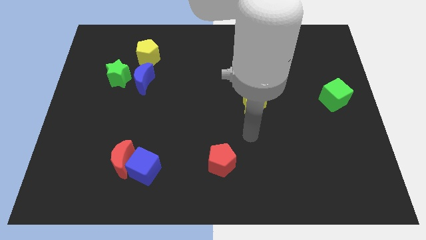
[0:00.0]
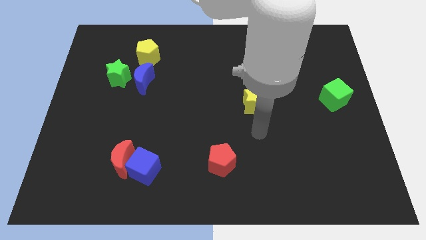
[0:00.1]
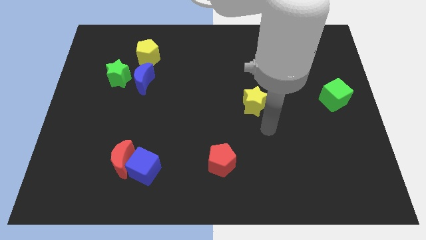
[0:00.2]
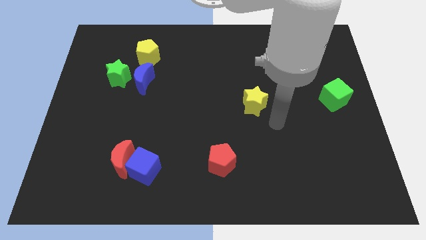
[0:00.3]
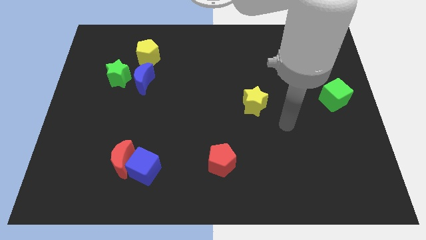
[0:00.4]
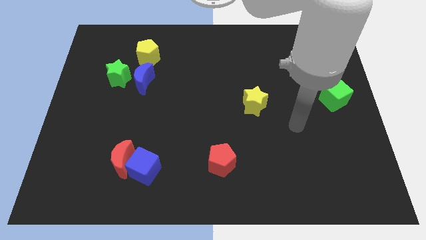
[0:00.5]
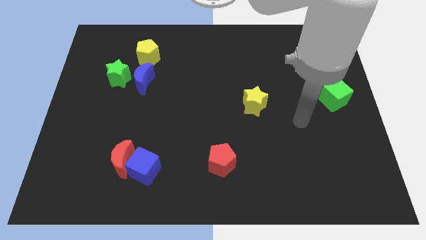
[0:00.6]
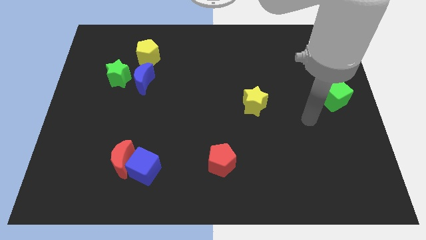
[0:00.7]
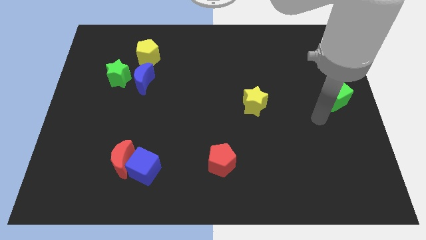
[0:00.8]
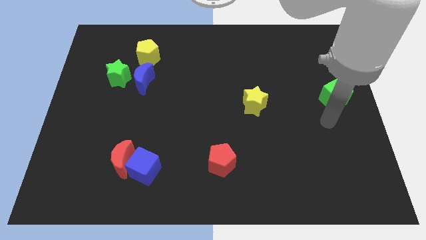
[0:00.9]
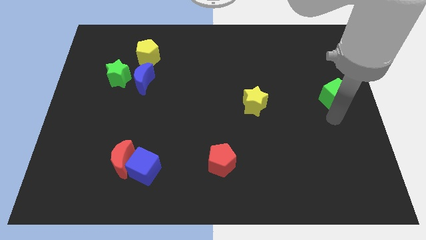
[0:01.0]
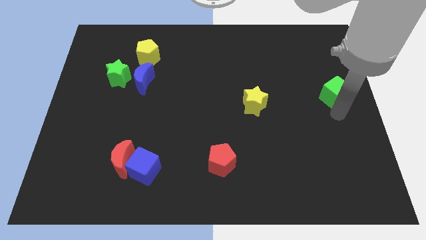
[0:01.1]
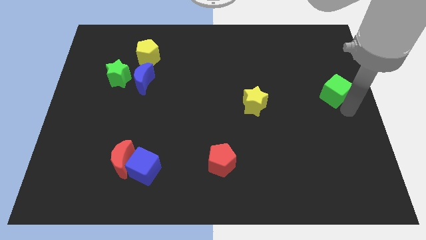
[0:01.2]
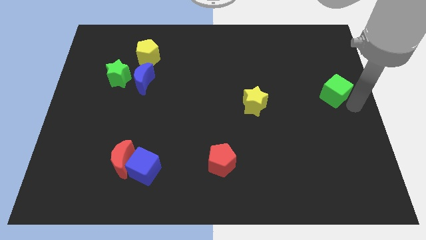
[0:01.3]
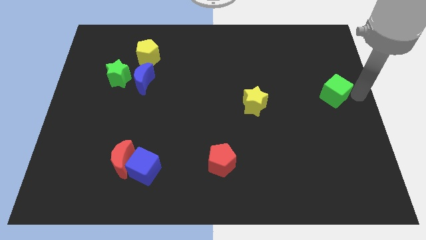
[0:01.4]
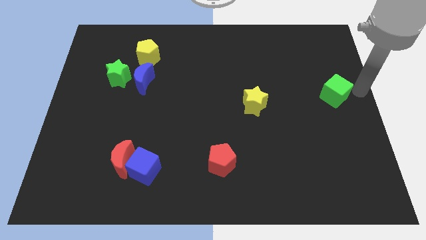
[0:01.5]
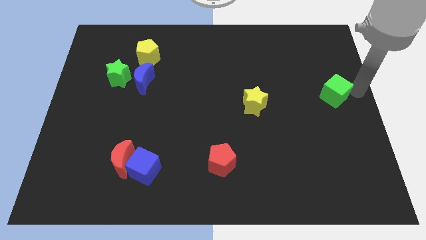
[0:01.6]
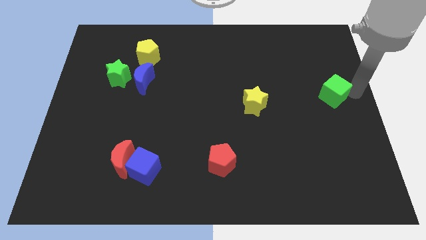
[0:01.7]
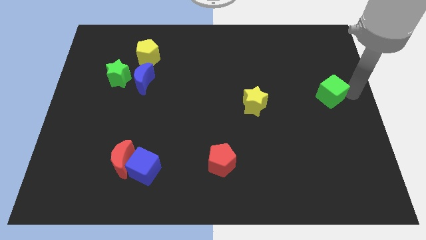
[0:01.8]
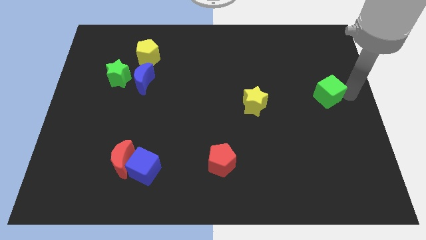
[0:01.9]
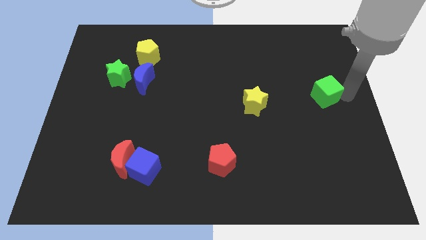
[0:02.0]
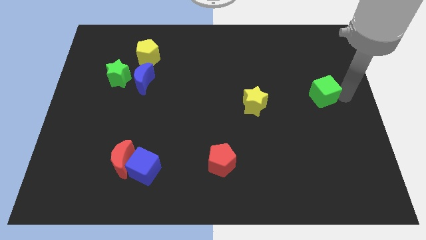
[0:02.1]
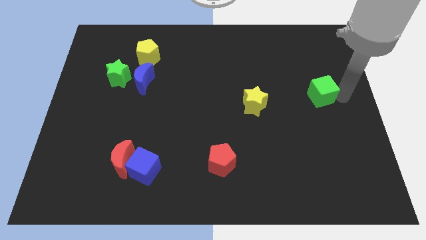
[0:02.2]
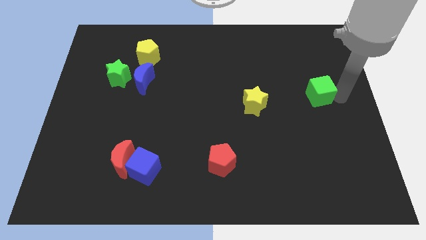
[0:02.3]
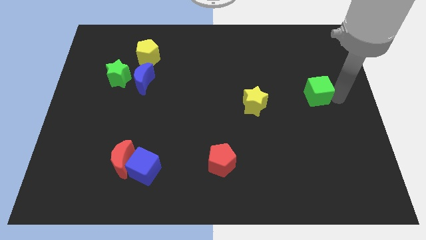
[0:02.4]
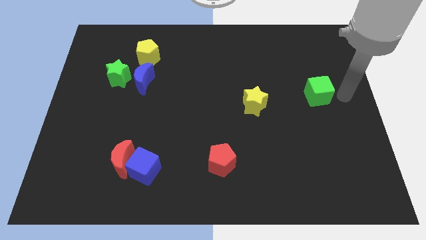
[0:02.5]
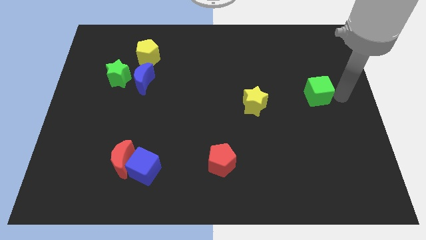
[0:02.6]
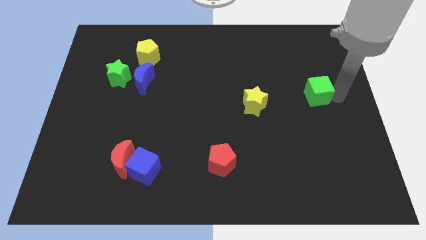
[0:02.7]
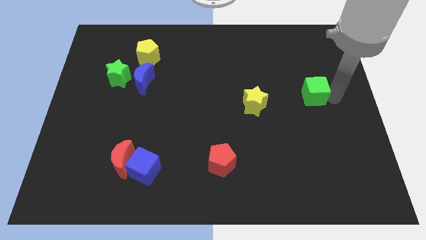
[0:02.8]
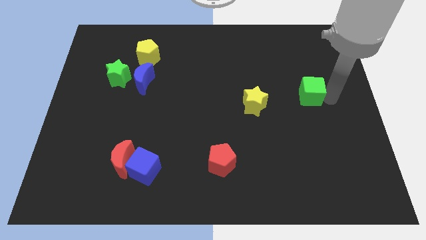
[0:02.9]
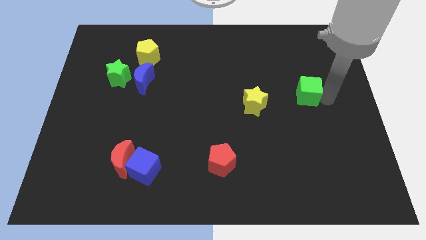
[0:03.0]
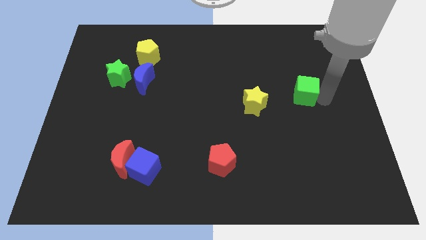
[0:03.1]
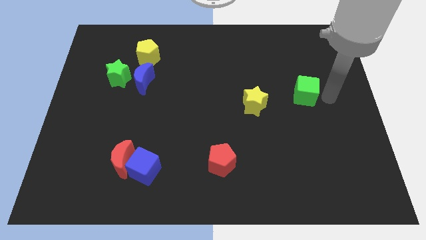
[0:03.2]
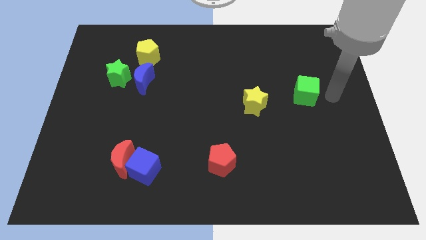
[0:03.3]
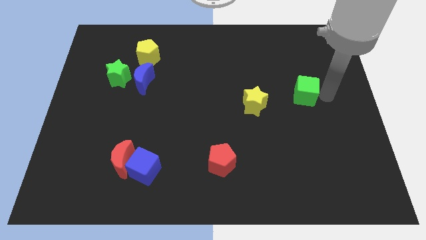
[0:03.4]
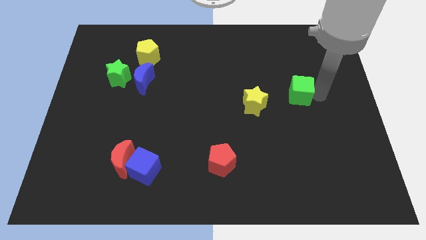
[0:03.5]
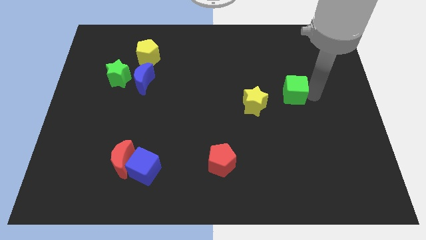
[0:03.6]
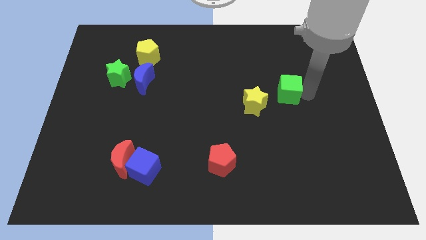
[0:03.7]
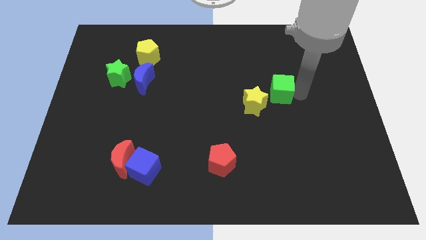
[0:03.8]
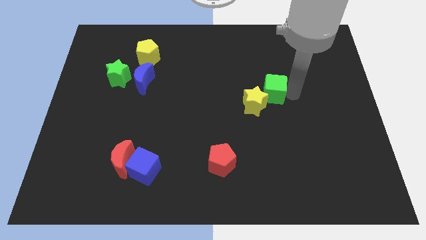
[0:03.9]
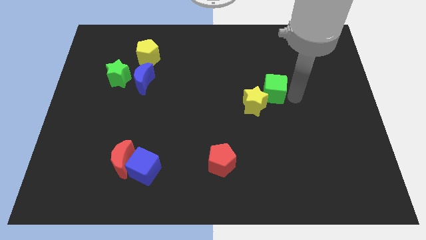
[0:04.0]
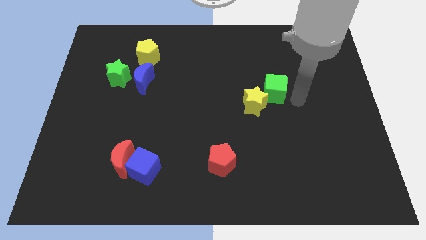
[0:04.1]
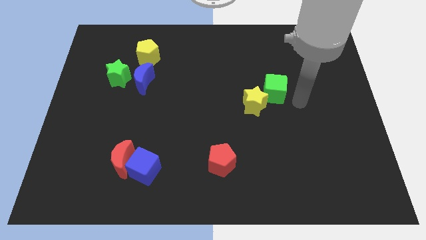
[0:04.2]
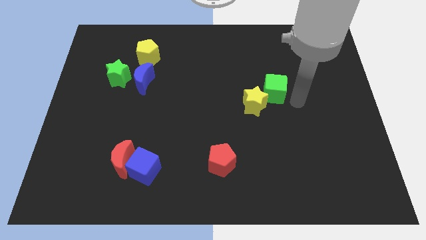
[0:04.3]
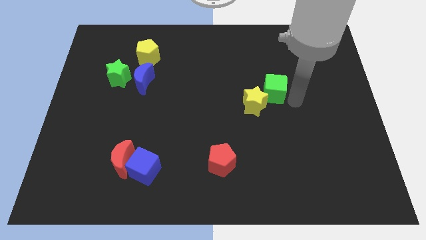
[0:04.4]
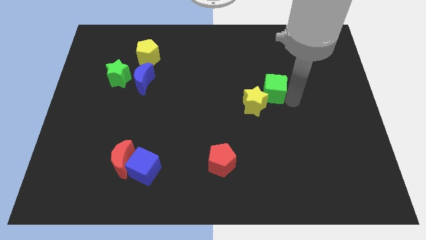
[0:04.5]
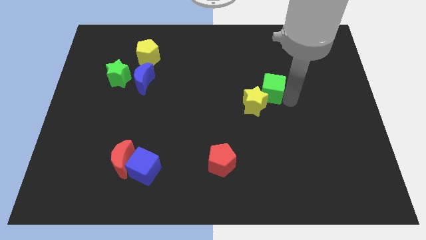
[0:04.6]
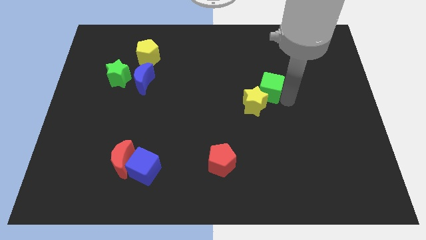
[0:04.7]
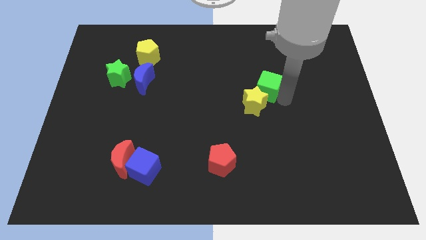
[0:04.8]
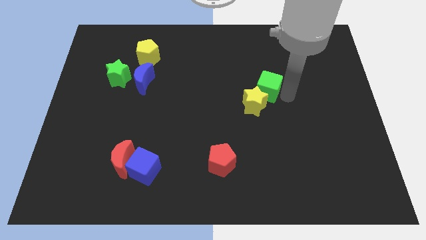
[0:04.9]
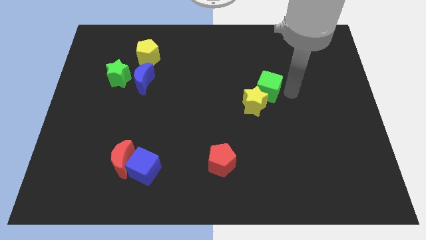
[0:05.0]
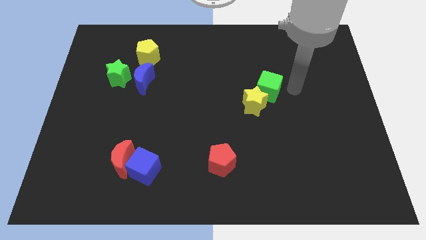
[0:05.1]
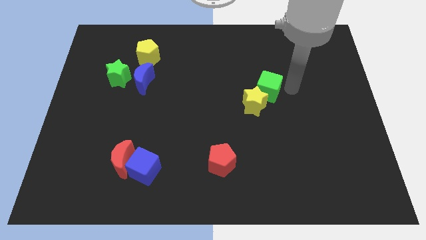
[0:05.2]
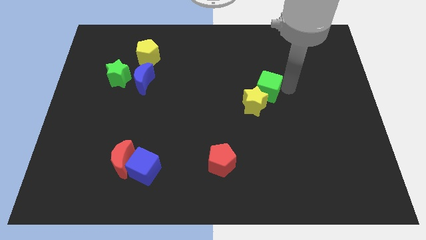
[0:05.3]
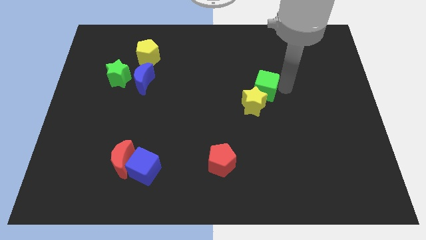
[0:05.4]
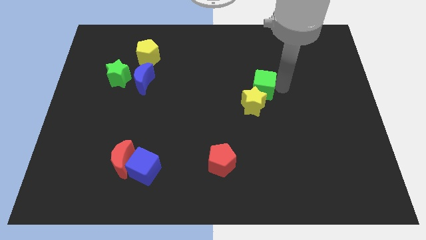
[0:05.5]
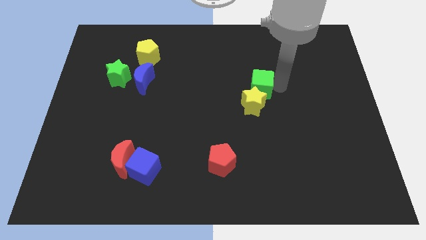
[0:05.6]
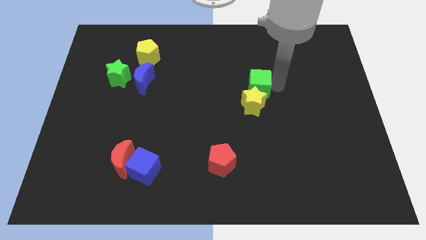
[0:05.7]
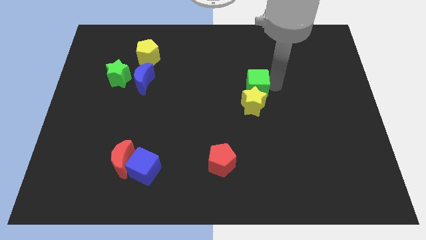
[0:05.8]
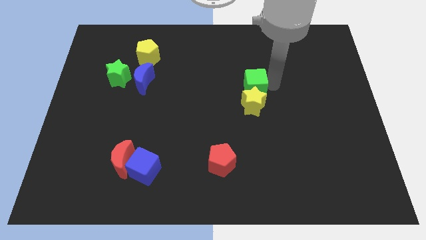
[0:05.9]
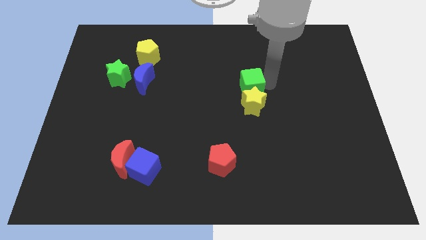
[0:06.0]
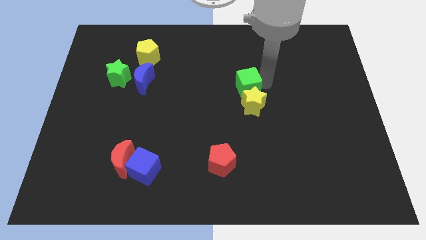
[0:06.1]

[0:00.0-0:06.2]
push the green cube left

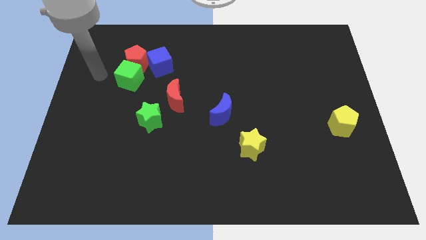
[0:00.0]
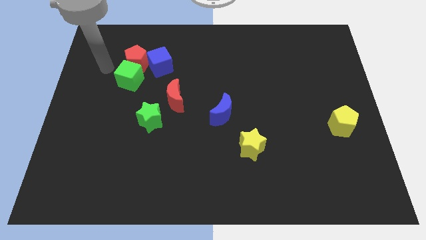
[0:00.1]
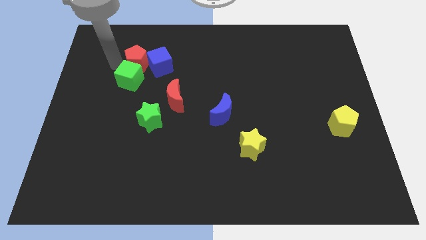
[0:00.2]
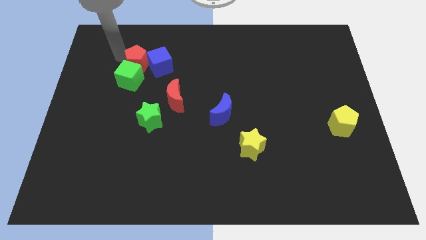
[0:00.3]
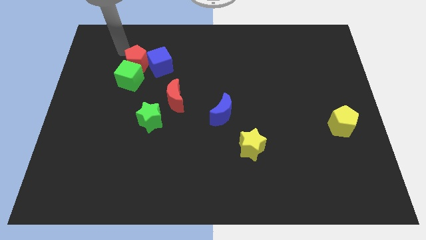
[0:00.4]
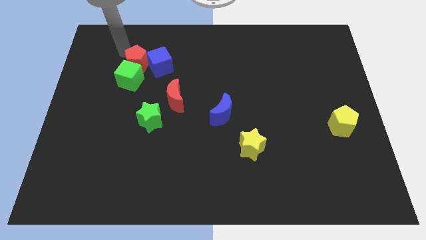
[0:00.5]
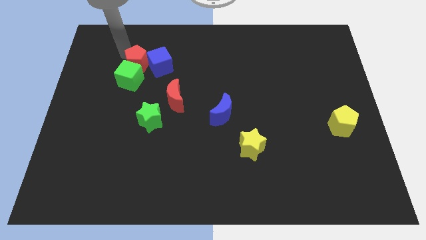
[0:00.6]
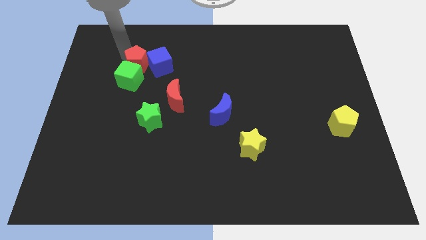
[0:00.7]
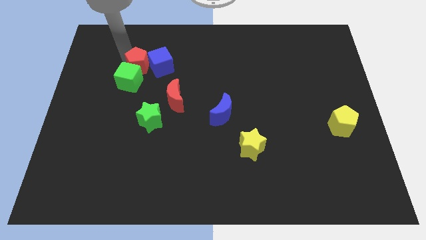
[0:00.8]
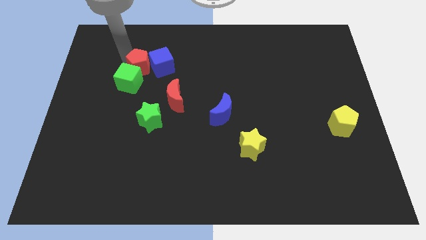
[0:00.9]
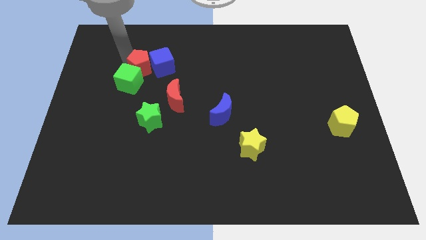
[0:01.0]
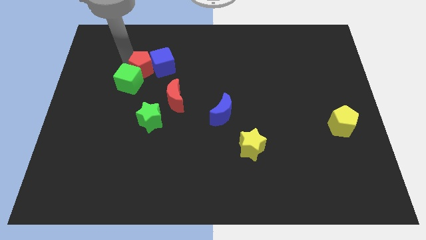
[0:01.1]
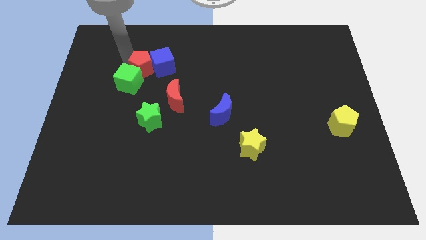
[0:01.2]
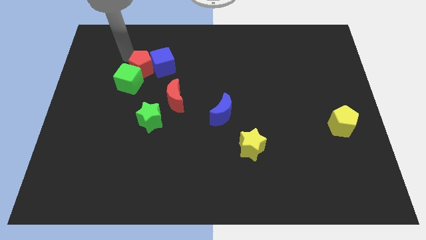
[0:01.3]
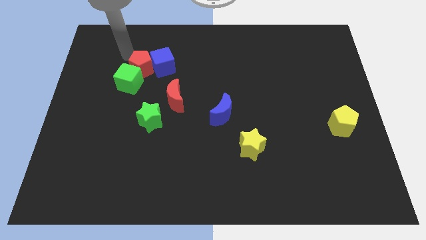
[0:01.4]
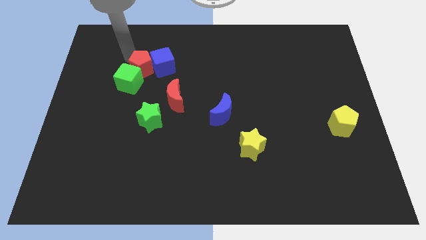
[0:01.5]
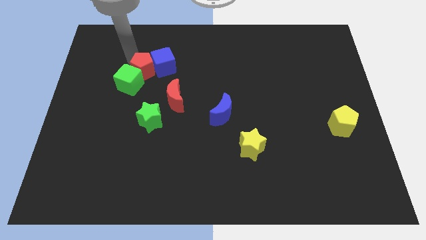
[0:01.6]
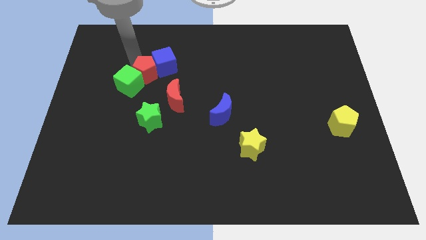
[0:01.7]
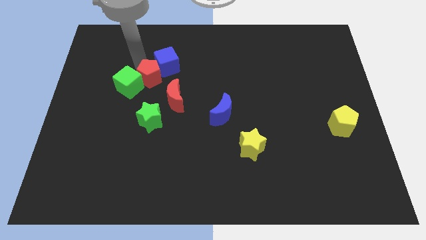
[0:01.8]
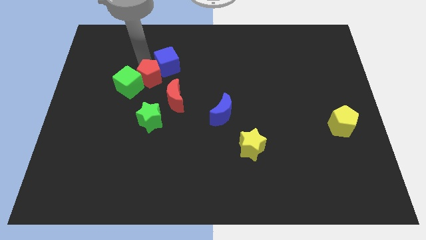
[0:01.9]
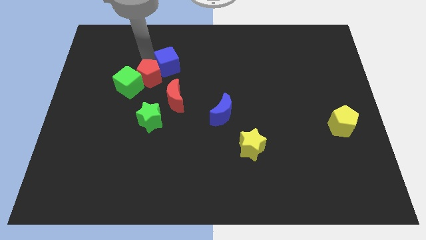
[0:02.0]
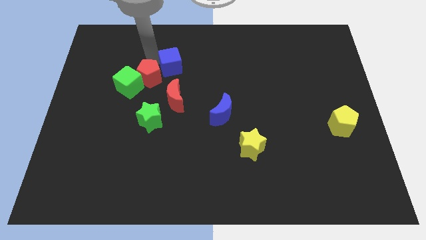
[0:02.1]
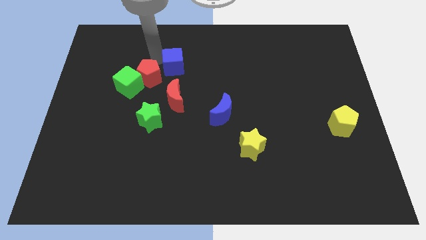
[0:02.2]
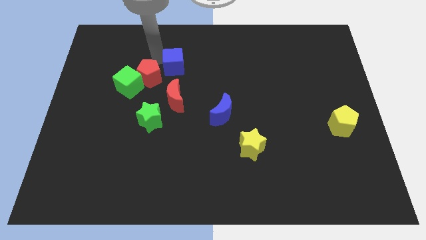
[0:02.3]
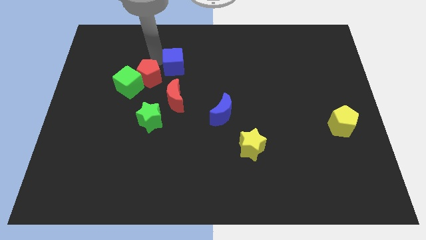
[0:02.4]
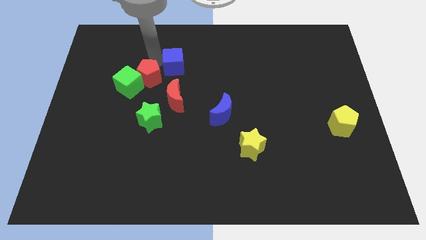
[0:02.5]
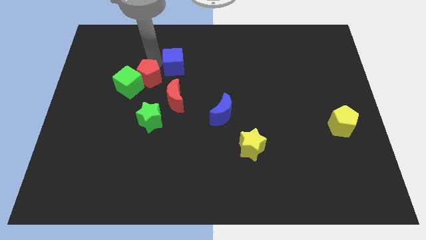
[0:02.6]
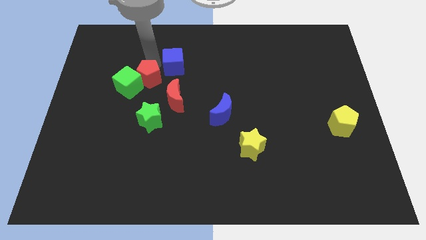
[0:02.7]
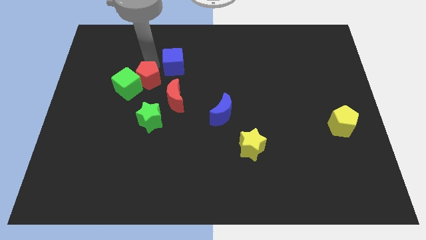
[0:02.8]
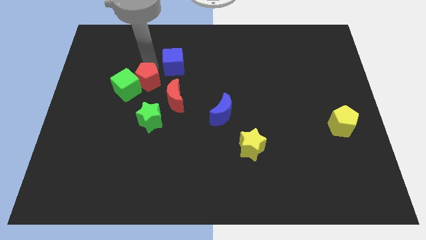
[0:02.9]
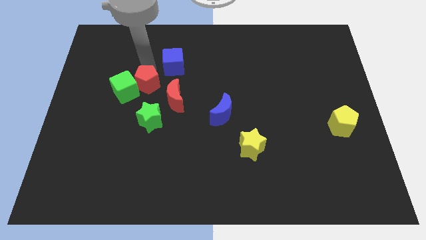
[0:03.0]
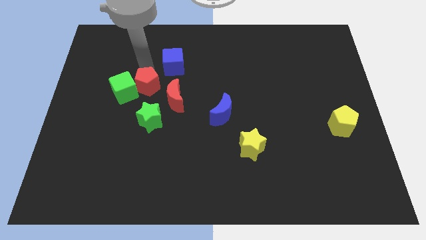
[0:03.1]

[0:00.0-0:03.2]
slide the red pentagon downwards slightly
